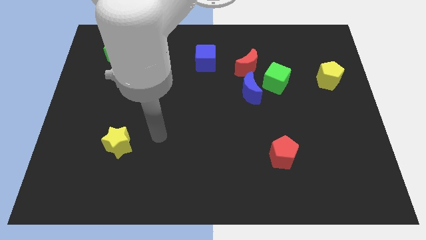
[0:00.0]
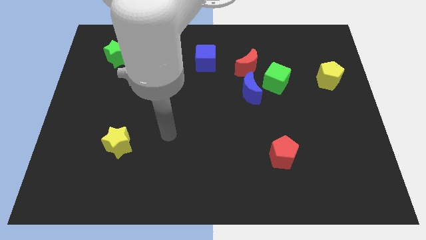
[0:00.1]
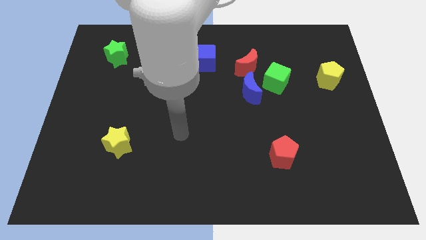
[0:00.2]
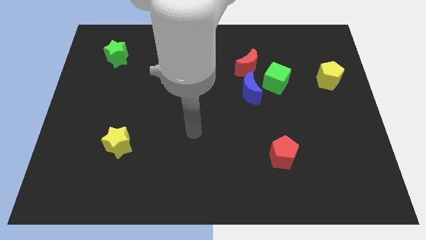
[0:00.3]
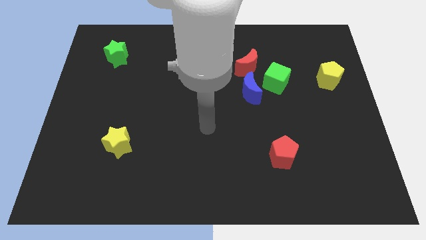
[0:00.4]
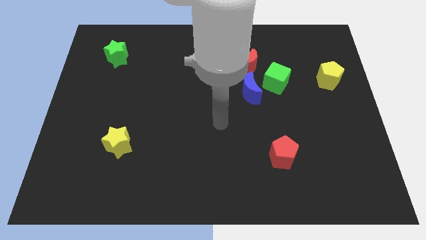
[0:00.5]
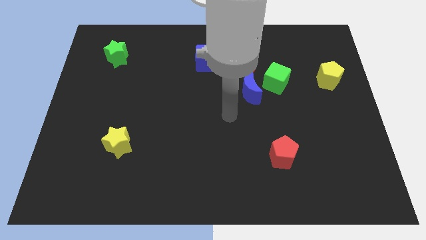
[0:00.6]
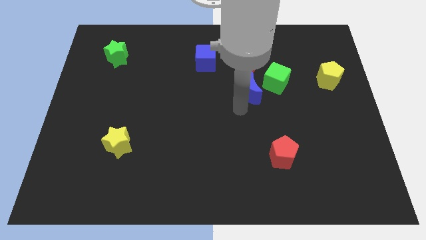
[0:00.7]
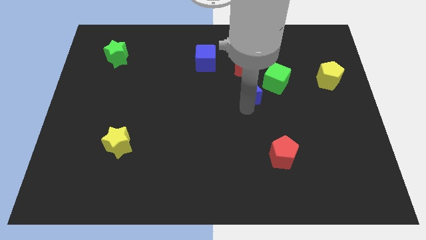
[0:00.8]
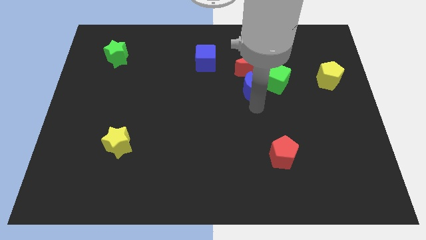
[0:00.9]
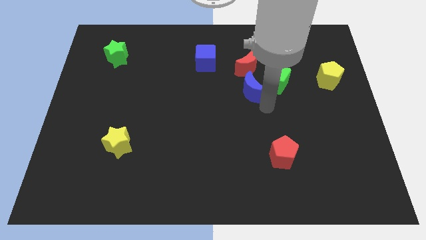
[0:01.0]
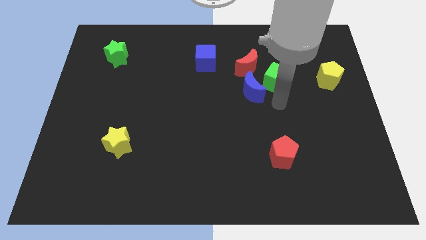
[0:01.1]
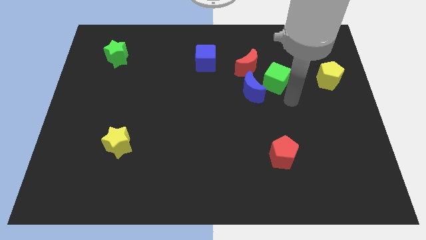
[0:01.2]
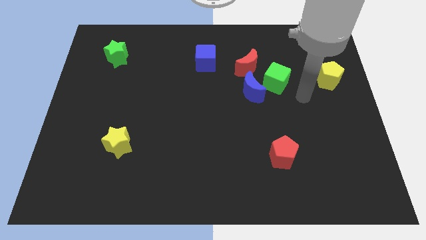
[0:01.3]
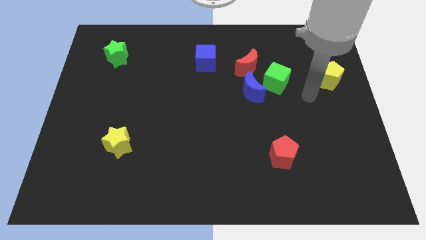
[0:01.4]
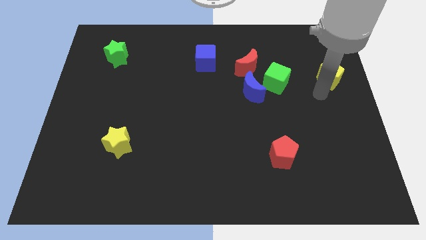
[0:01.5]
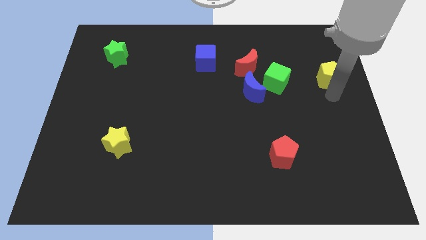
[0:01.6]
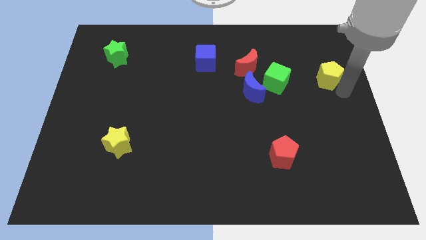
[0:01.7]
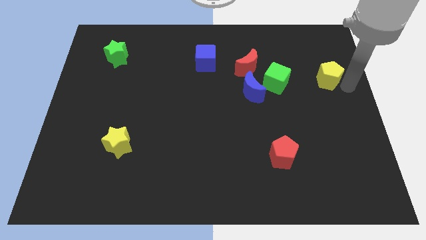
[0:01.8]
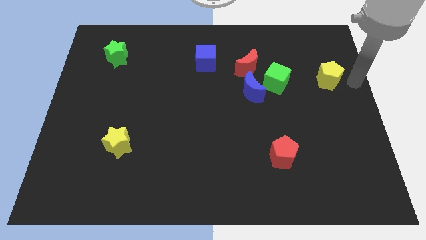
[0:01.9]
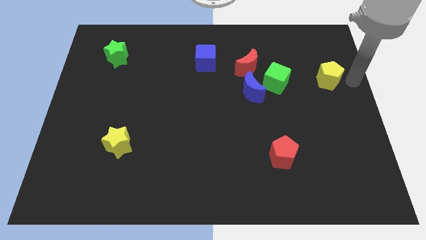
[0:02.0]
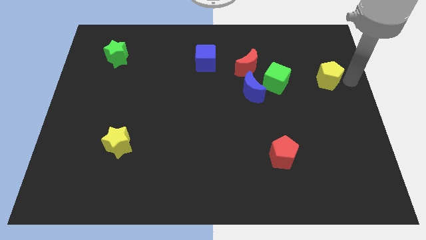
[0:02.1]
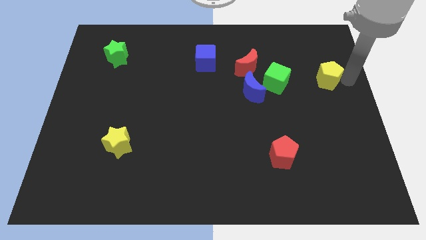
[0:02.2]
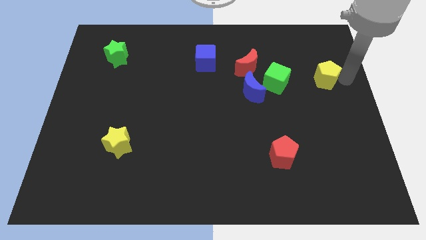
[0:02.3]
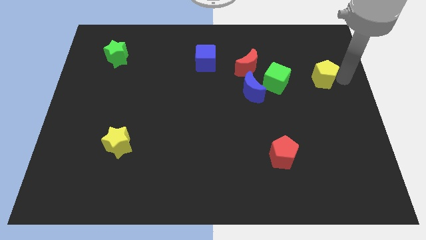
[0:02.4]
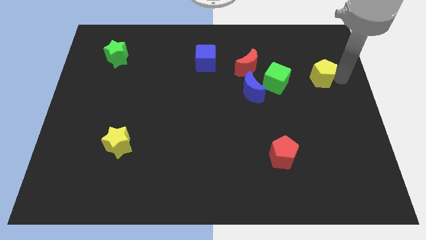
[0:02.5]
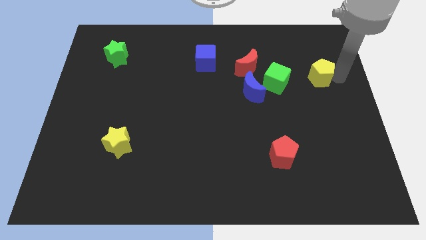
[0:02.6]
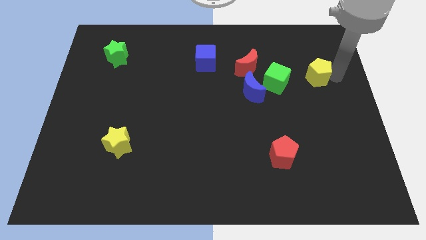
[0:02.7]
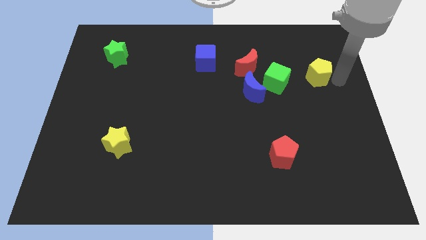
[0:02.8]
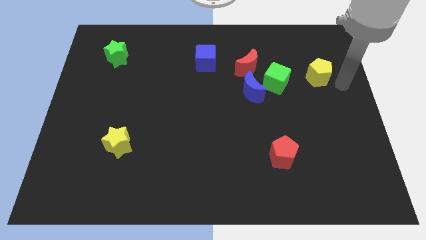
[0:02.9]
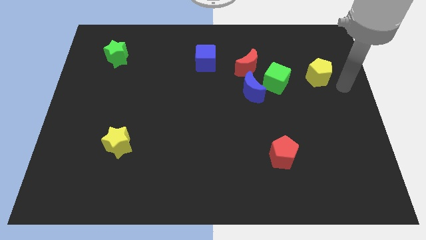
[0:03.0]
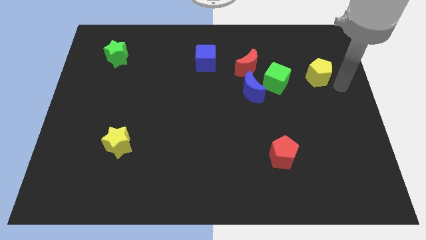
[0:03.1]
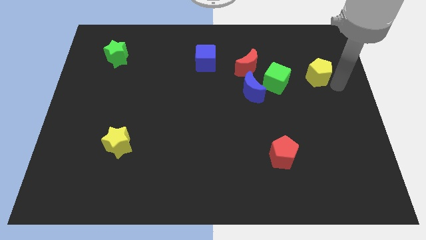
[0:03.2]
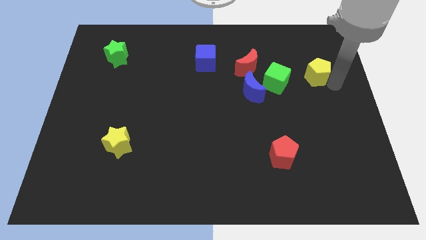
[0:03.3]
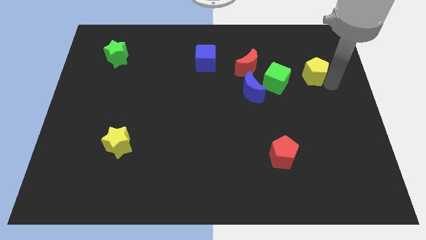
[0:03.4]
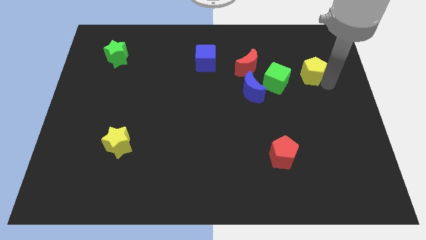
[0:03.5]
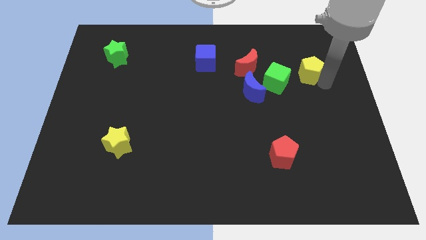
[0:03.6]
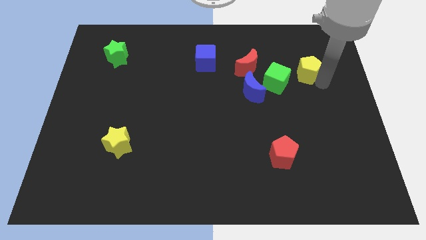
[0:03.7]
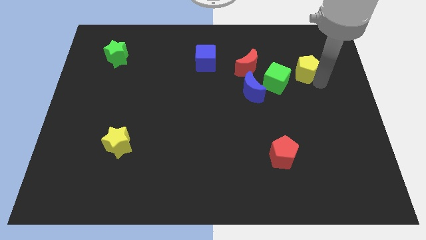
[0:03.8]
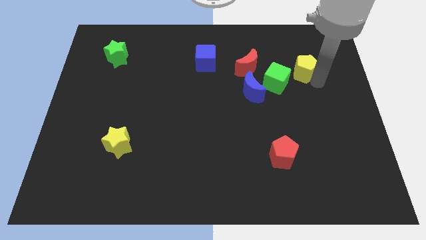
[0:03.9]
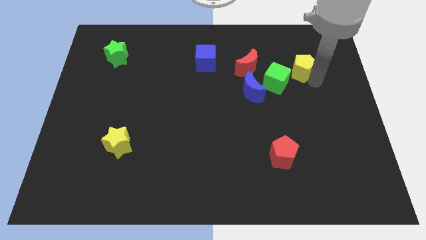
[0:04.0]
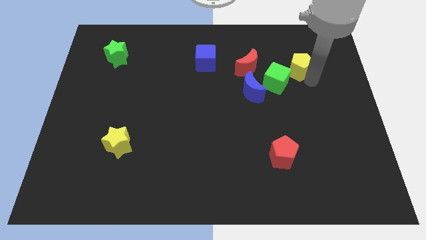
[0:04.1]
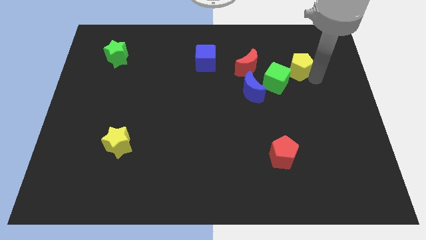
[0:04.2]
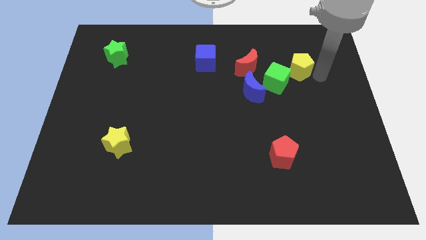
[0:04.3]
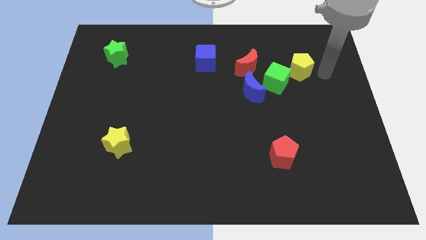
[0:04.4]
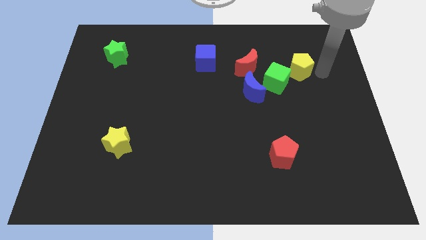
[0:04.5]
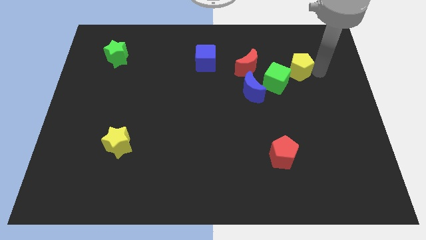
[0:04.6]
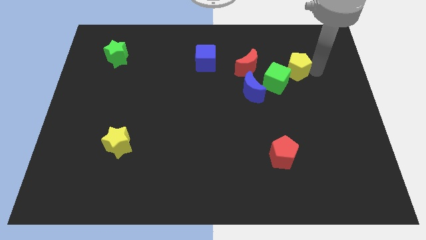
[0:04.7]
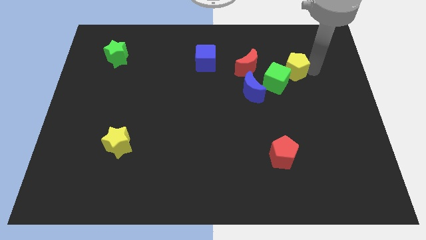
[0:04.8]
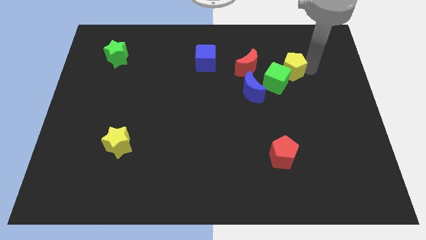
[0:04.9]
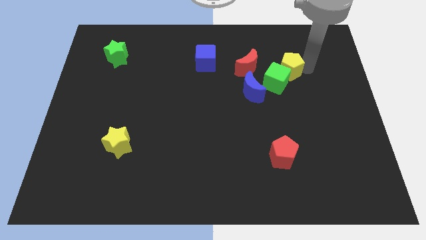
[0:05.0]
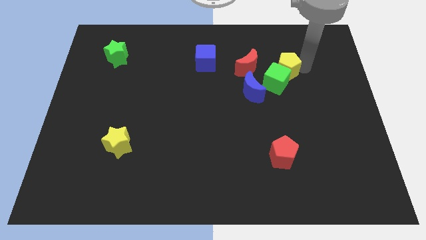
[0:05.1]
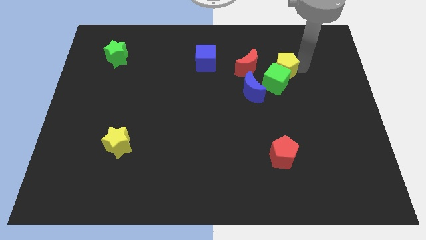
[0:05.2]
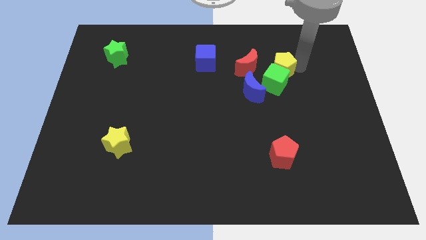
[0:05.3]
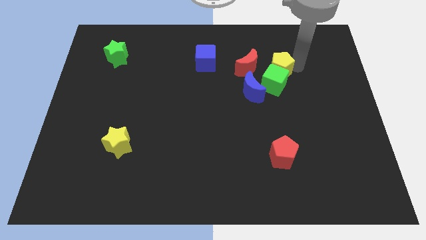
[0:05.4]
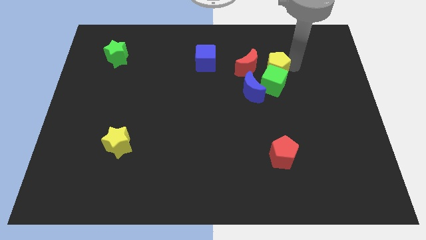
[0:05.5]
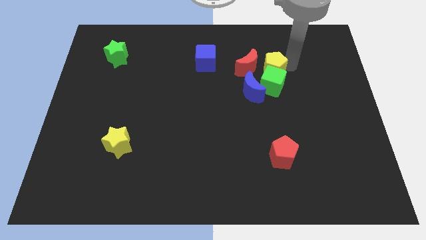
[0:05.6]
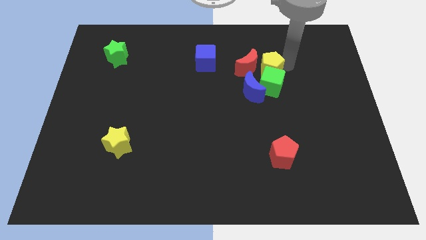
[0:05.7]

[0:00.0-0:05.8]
put the yellow pentagon next to the red moon

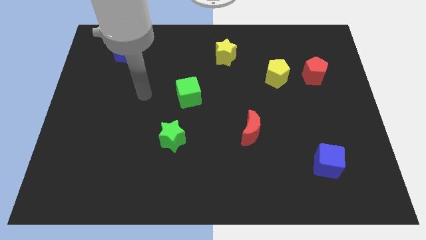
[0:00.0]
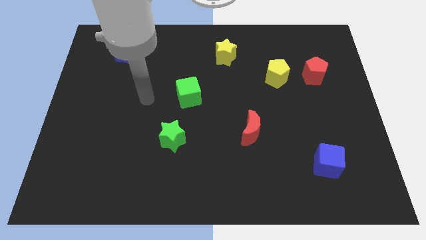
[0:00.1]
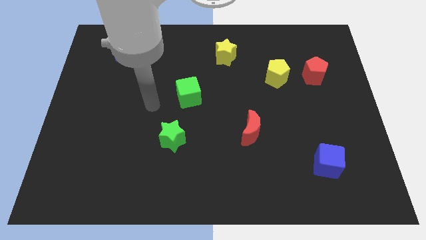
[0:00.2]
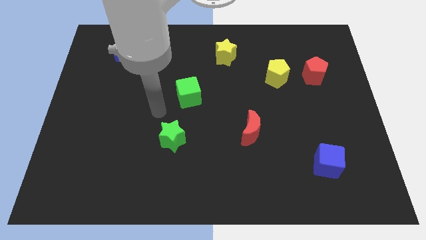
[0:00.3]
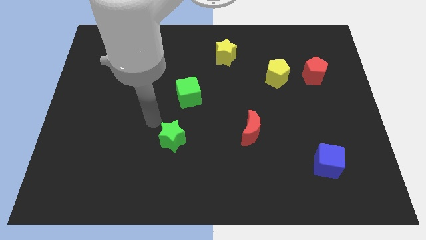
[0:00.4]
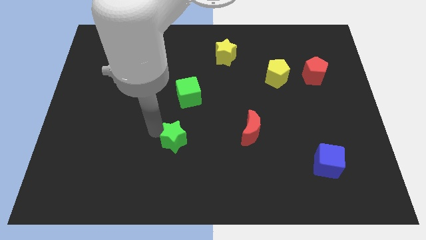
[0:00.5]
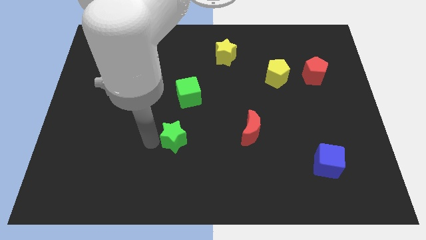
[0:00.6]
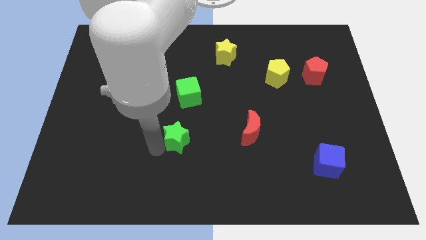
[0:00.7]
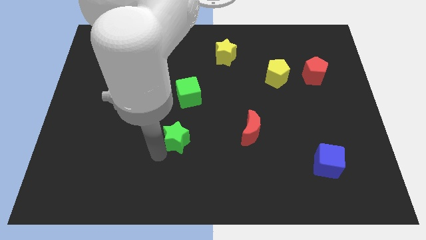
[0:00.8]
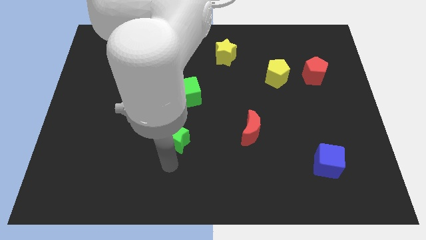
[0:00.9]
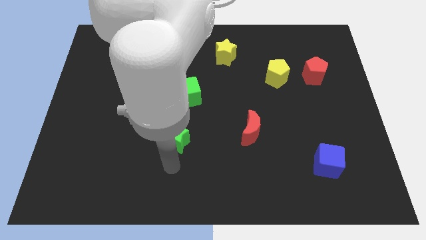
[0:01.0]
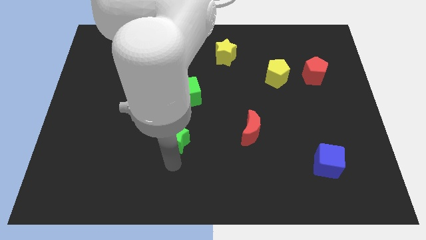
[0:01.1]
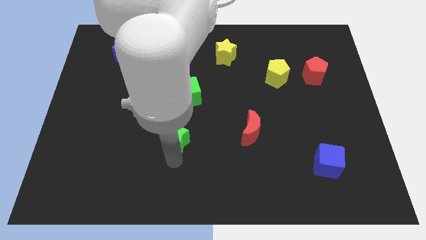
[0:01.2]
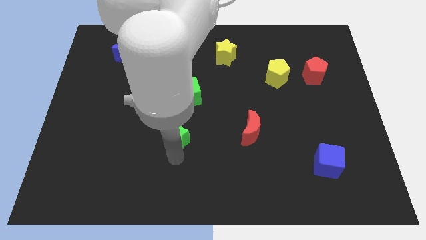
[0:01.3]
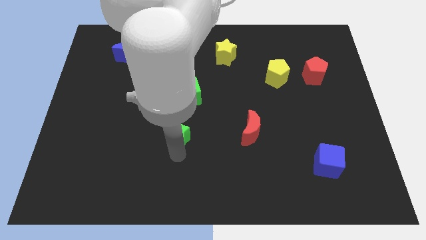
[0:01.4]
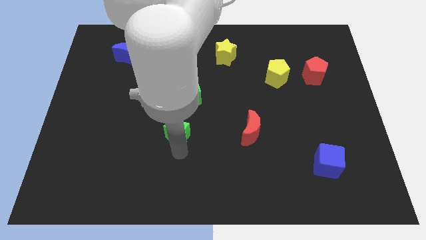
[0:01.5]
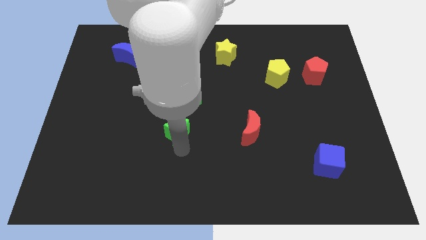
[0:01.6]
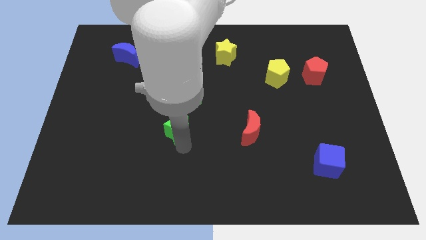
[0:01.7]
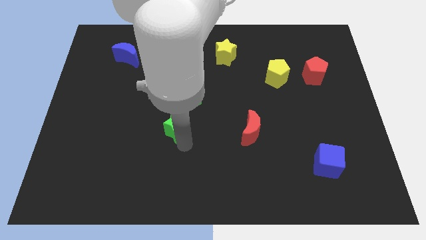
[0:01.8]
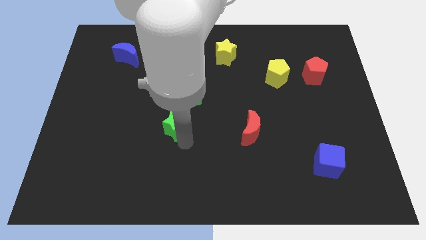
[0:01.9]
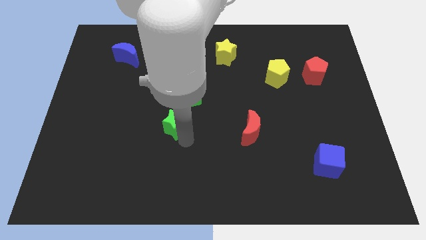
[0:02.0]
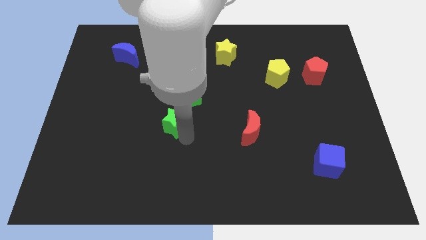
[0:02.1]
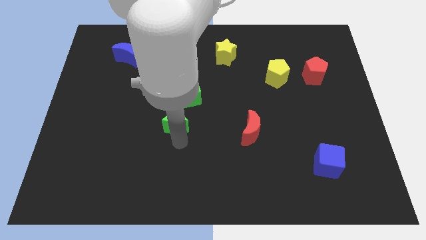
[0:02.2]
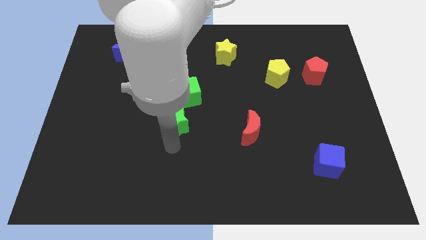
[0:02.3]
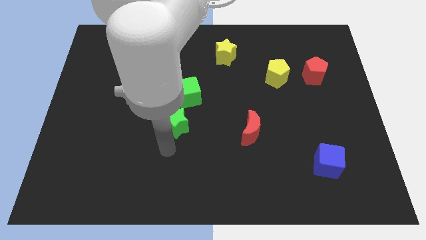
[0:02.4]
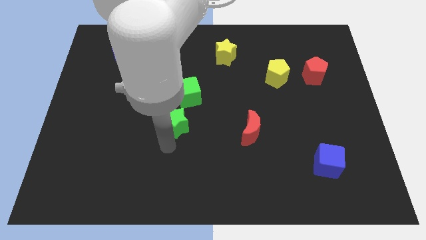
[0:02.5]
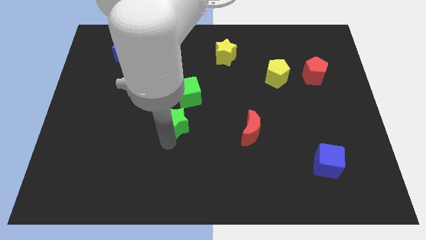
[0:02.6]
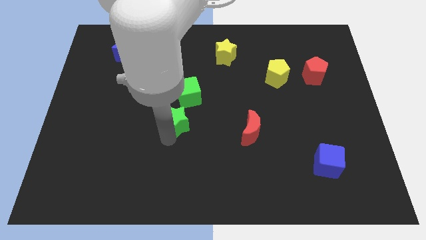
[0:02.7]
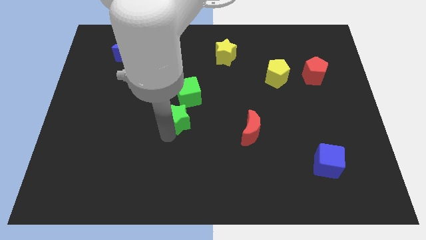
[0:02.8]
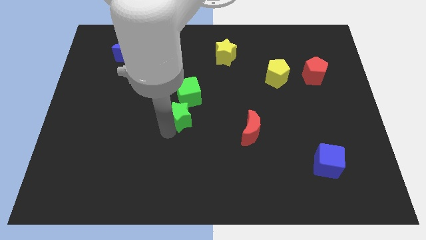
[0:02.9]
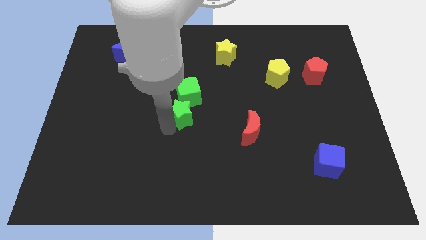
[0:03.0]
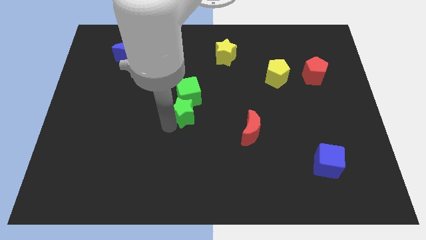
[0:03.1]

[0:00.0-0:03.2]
push the green star next to the green cube
